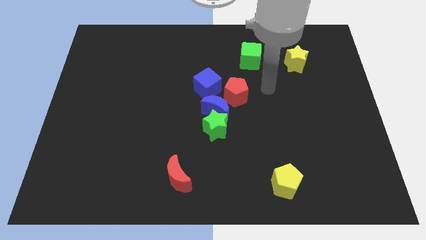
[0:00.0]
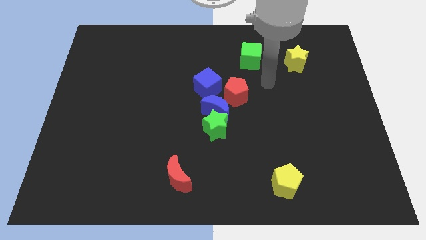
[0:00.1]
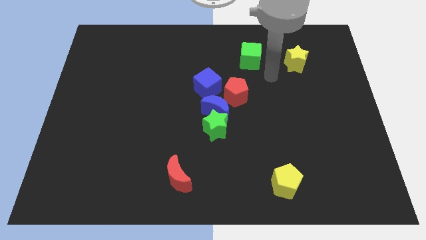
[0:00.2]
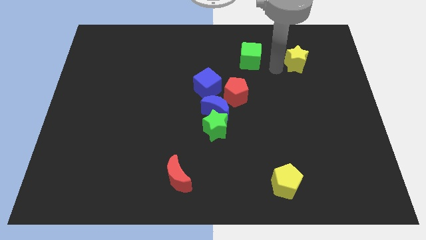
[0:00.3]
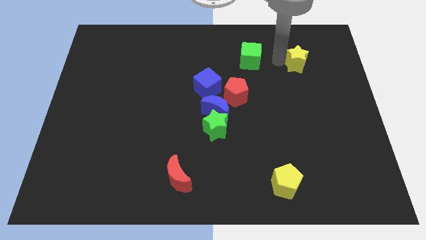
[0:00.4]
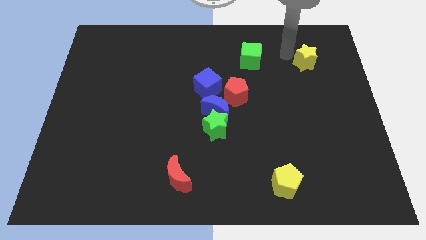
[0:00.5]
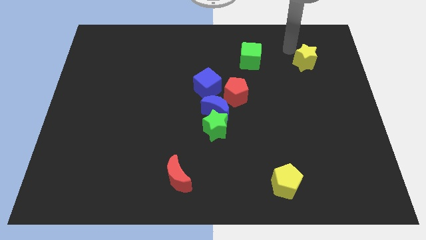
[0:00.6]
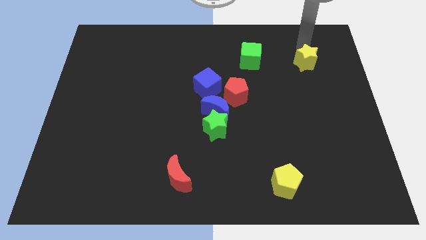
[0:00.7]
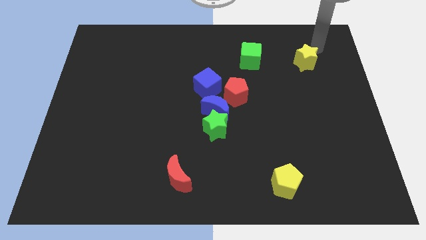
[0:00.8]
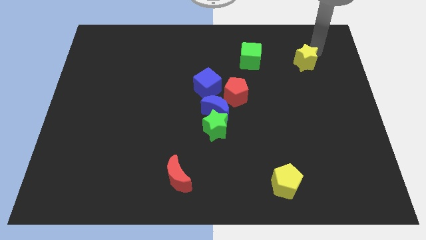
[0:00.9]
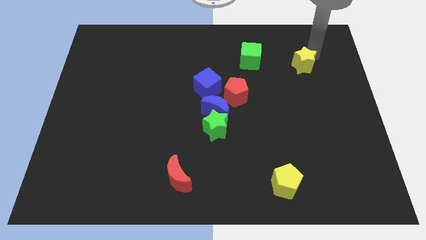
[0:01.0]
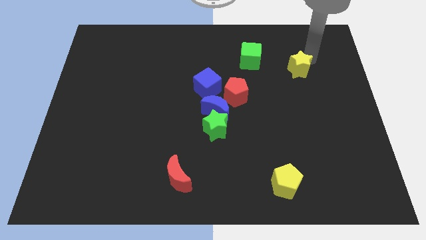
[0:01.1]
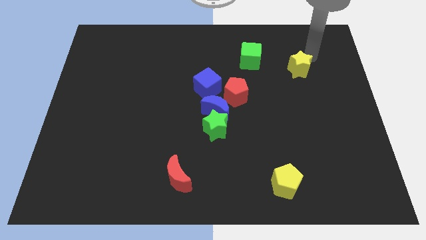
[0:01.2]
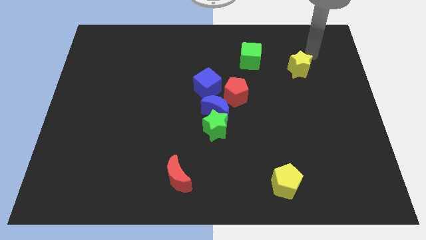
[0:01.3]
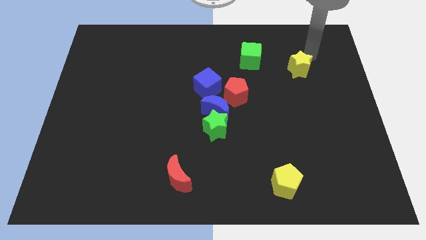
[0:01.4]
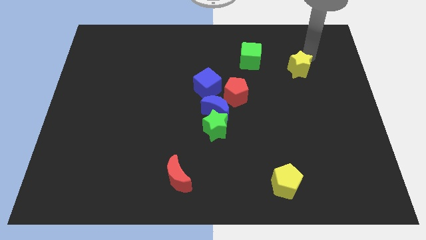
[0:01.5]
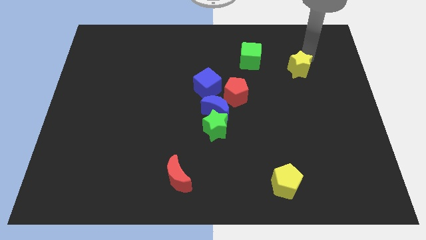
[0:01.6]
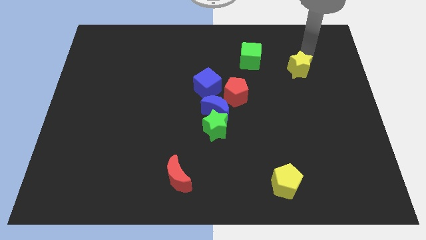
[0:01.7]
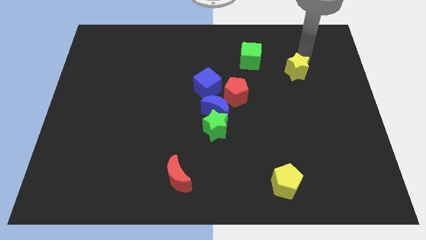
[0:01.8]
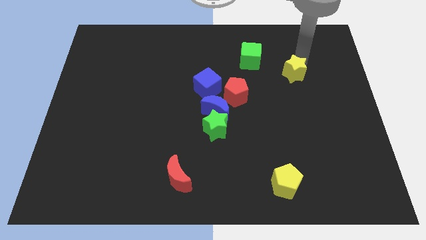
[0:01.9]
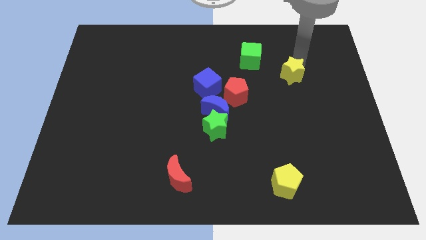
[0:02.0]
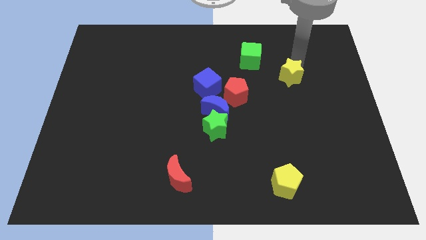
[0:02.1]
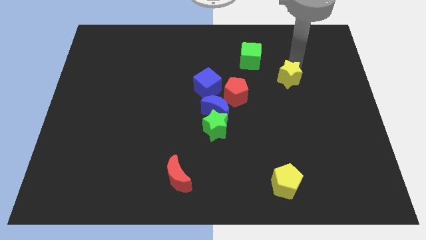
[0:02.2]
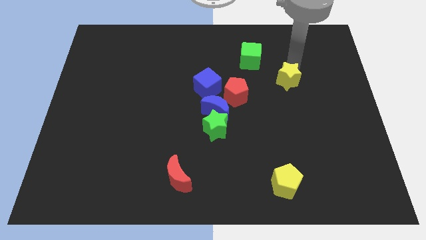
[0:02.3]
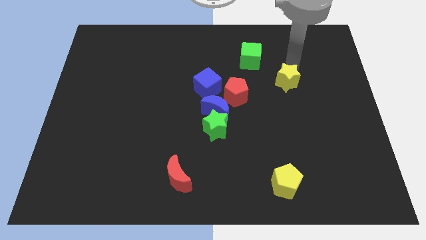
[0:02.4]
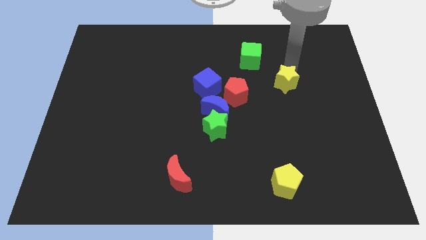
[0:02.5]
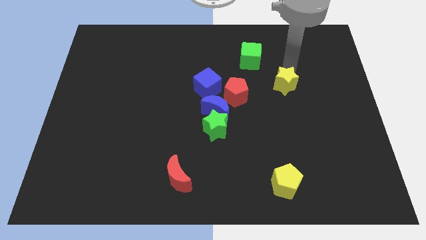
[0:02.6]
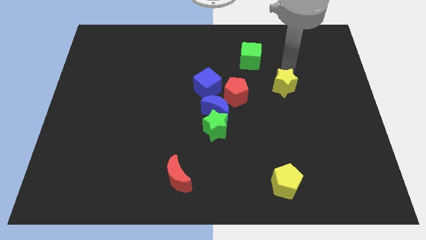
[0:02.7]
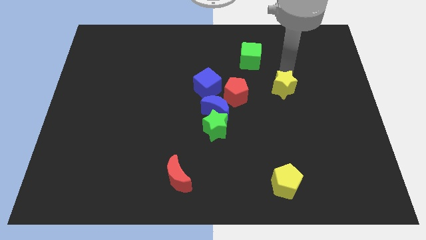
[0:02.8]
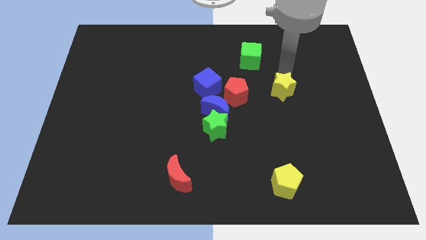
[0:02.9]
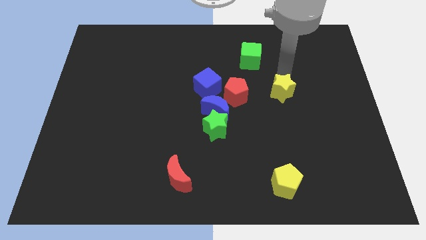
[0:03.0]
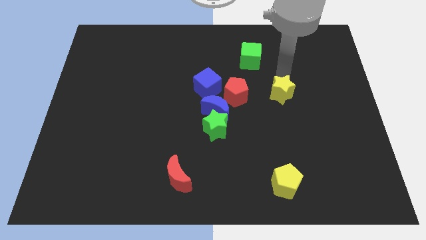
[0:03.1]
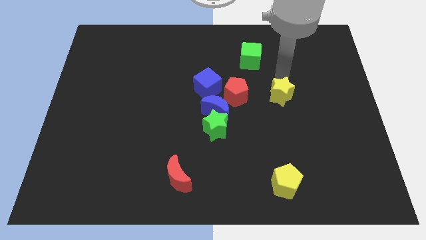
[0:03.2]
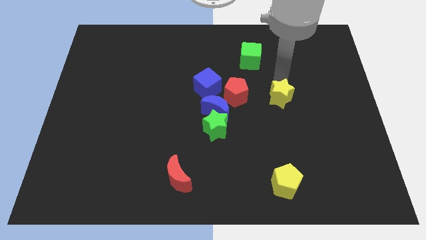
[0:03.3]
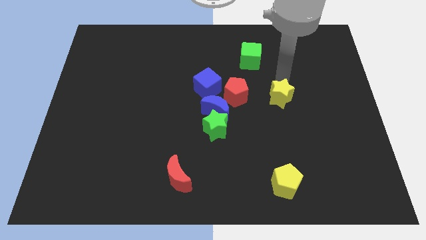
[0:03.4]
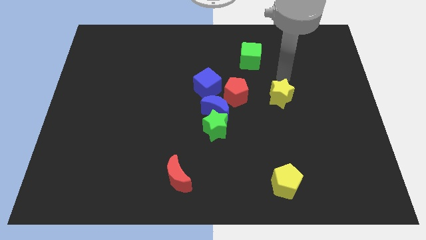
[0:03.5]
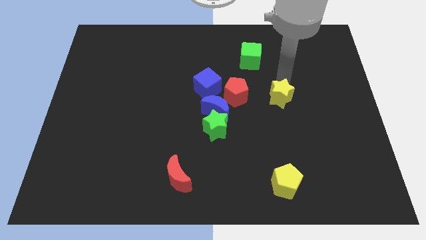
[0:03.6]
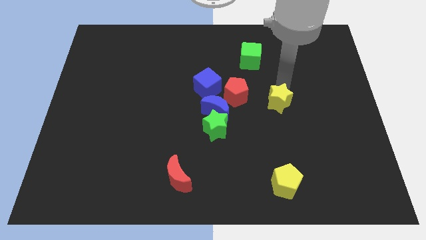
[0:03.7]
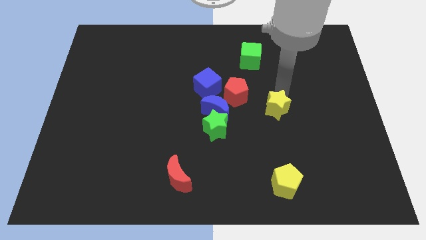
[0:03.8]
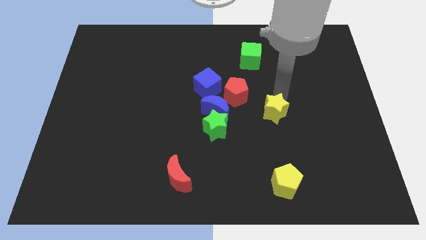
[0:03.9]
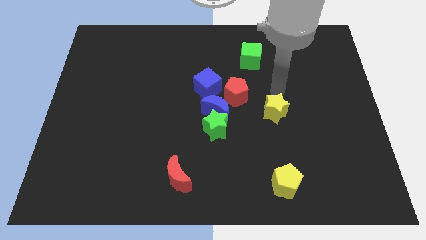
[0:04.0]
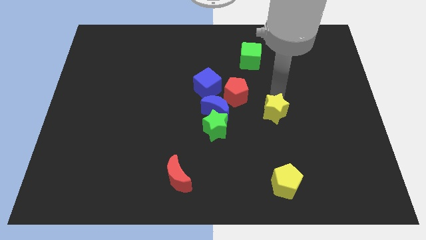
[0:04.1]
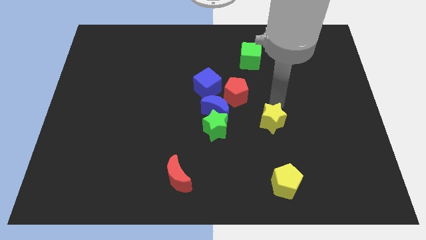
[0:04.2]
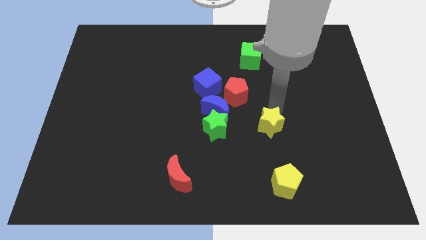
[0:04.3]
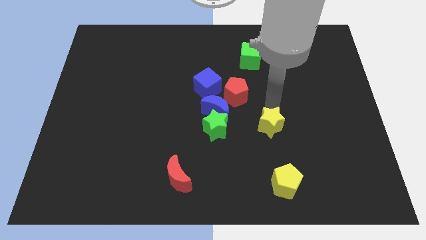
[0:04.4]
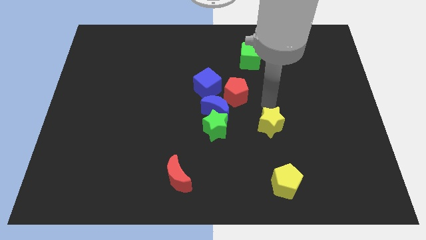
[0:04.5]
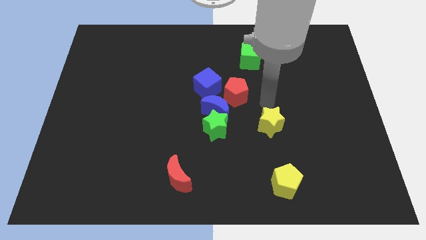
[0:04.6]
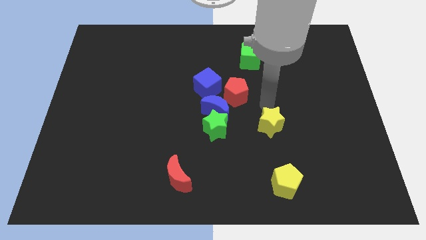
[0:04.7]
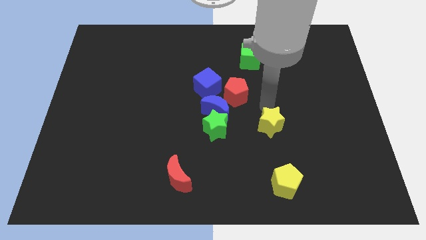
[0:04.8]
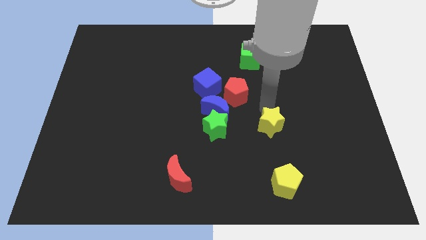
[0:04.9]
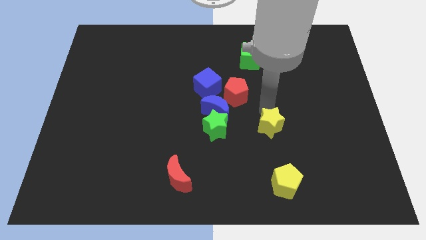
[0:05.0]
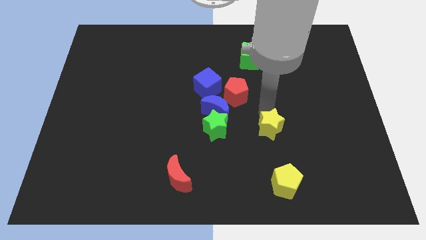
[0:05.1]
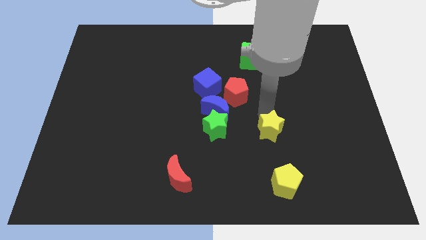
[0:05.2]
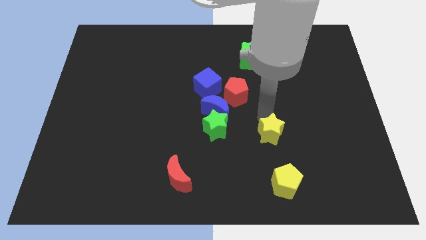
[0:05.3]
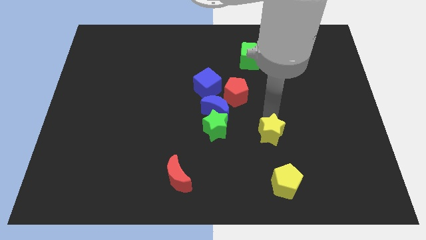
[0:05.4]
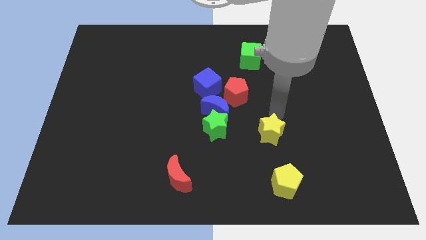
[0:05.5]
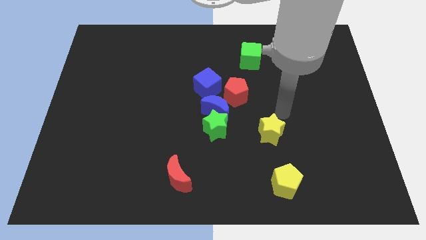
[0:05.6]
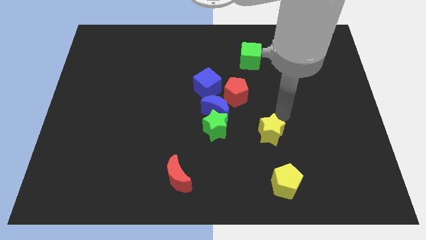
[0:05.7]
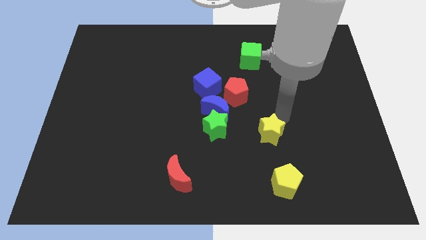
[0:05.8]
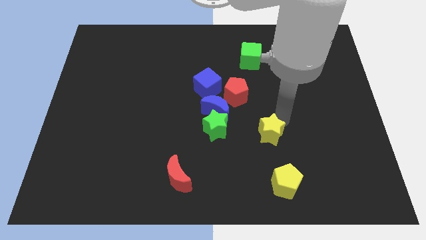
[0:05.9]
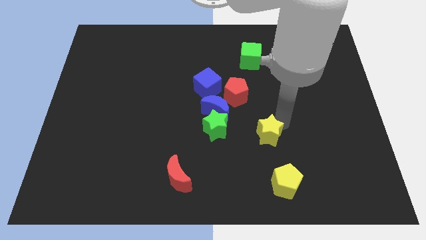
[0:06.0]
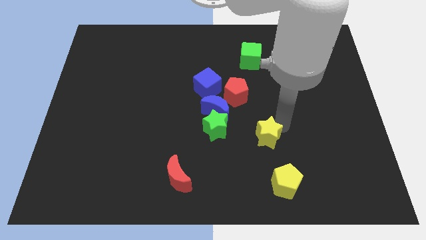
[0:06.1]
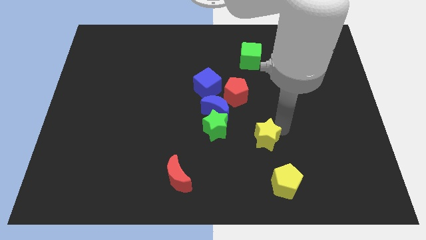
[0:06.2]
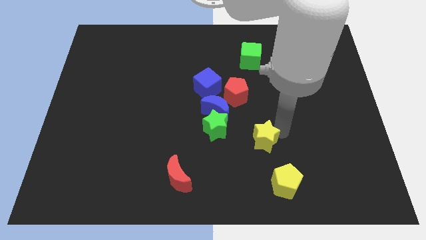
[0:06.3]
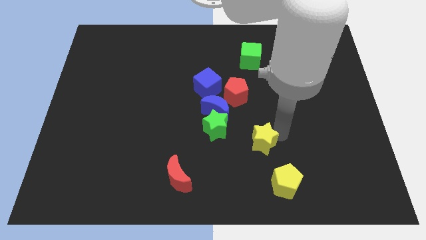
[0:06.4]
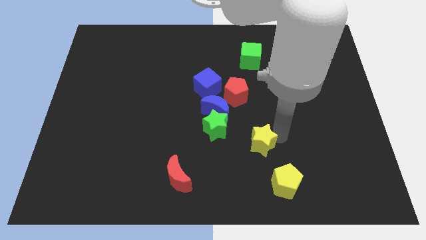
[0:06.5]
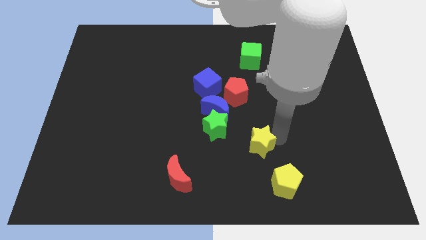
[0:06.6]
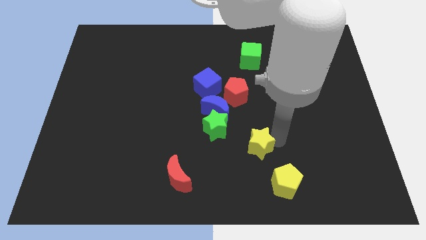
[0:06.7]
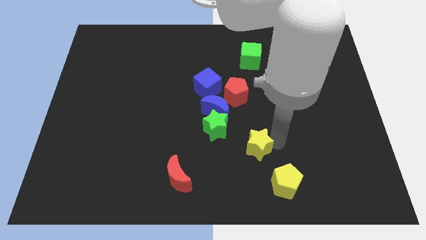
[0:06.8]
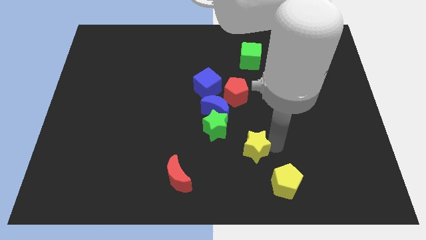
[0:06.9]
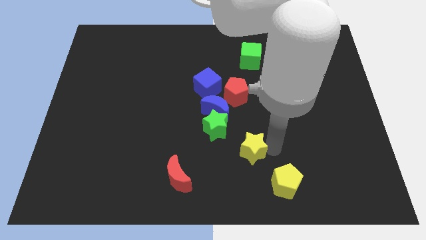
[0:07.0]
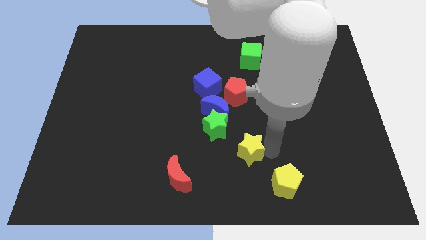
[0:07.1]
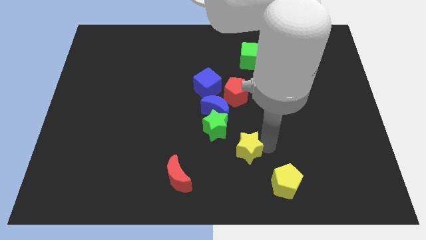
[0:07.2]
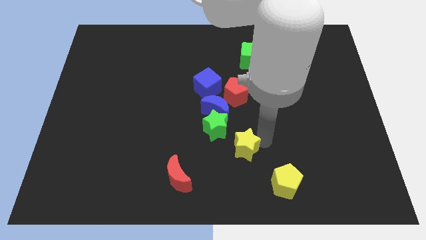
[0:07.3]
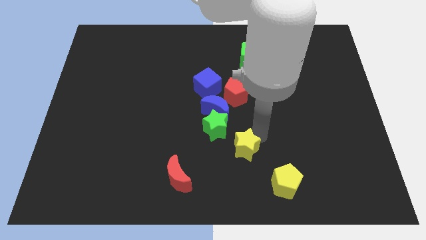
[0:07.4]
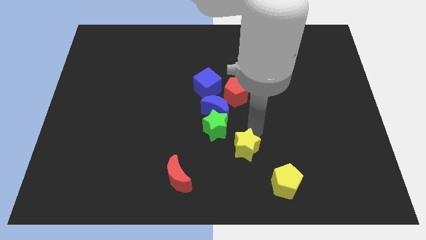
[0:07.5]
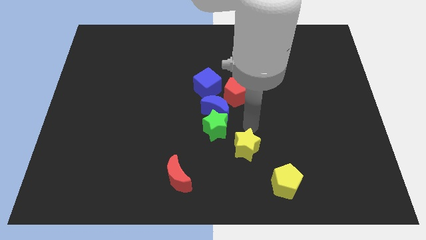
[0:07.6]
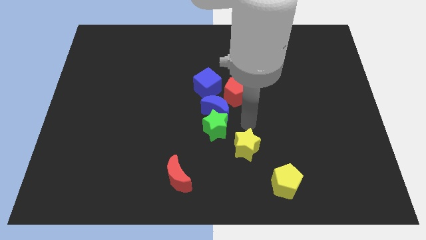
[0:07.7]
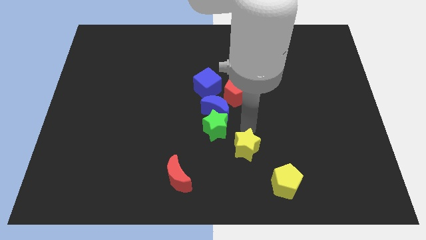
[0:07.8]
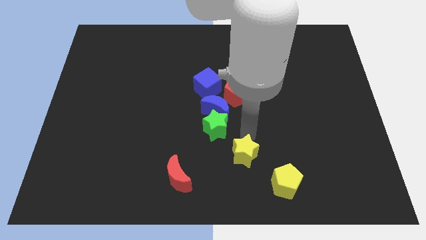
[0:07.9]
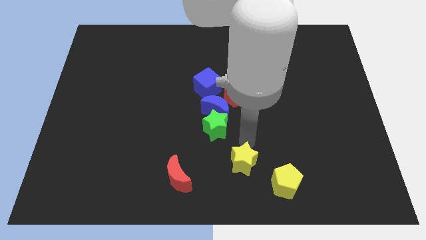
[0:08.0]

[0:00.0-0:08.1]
push the yellow star to the bottom side

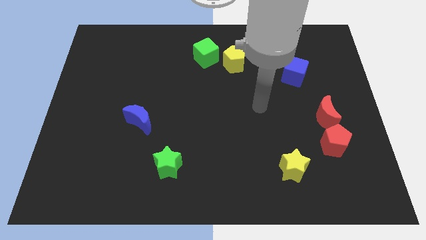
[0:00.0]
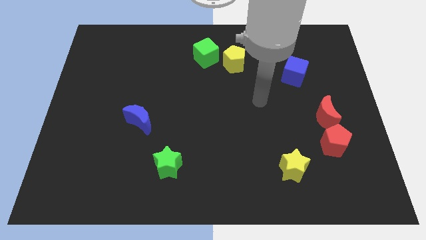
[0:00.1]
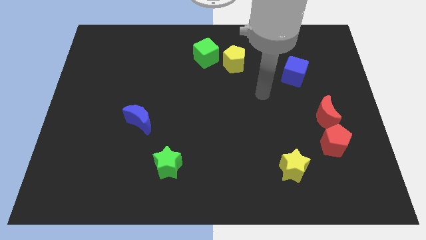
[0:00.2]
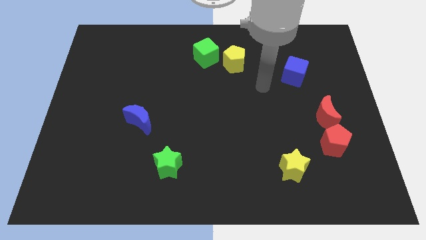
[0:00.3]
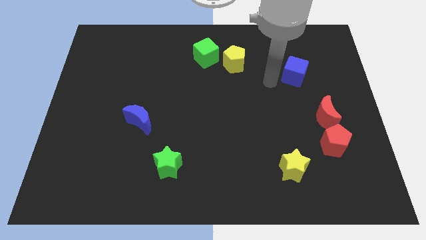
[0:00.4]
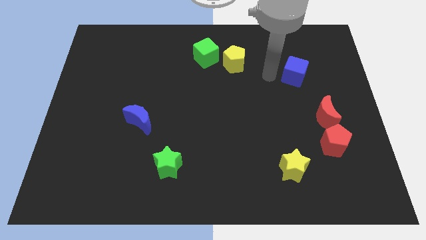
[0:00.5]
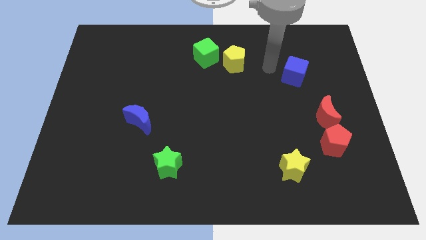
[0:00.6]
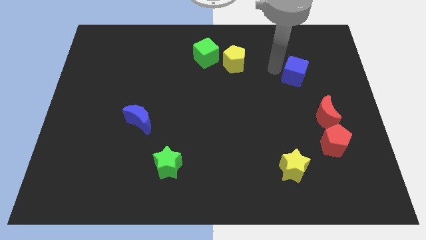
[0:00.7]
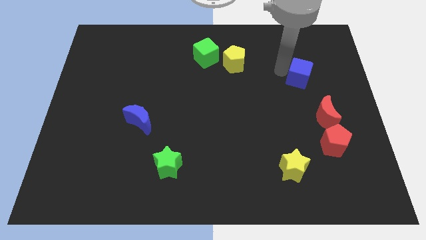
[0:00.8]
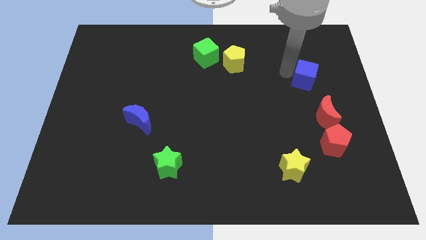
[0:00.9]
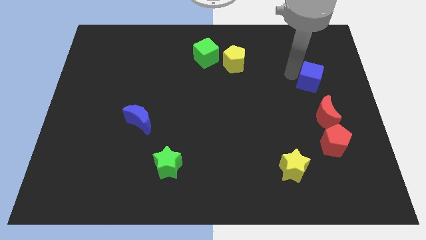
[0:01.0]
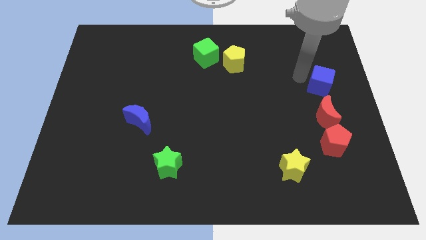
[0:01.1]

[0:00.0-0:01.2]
slide the blue cube to the right side of the board
